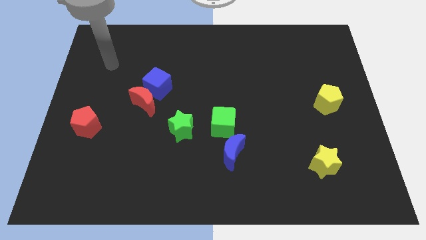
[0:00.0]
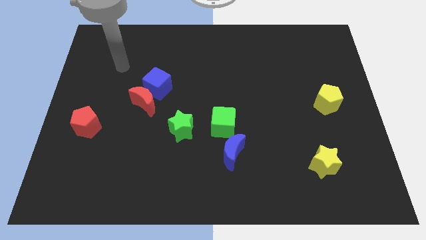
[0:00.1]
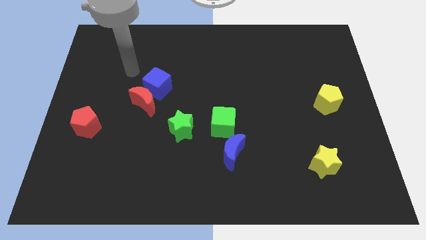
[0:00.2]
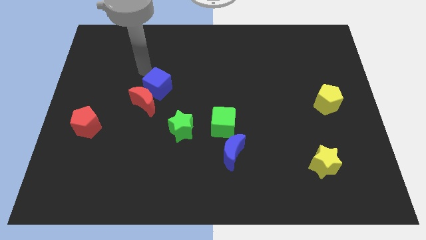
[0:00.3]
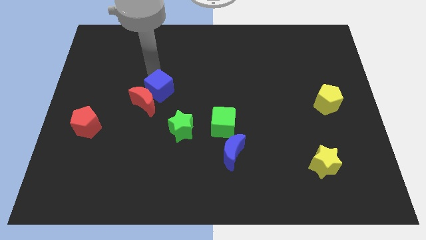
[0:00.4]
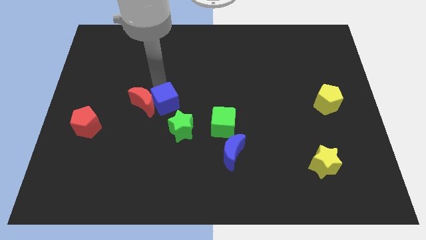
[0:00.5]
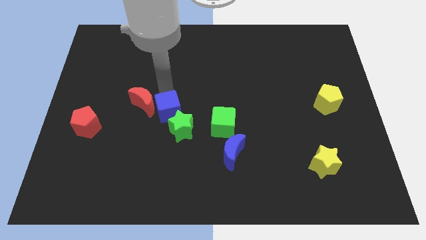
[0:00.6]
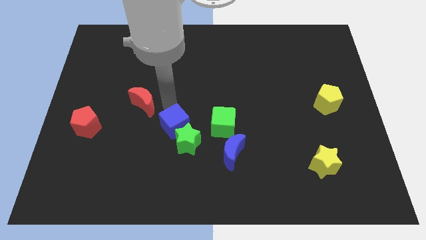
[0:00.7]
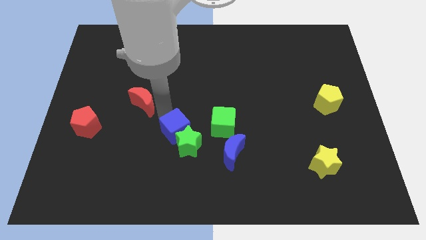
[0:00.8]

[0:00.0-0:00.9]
pull the red moon apart from the blue cube

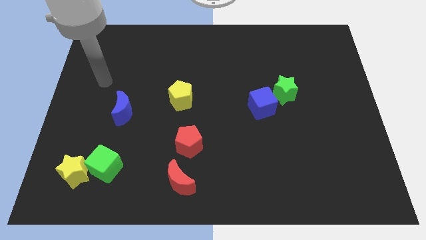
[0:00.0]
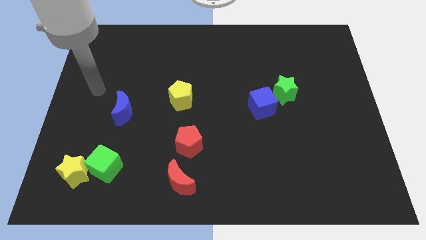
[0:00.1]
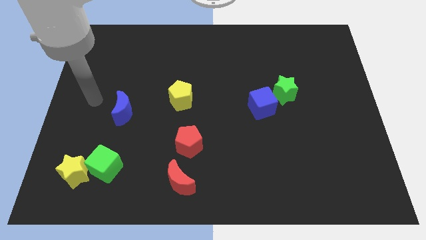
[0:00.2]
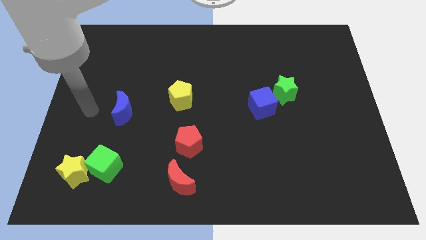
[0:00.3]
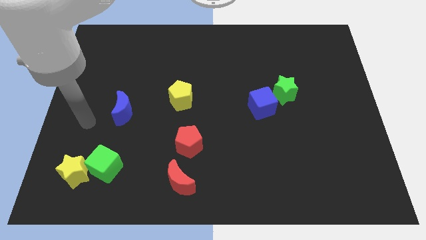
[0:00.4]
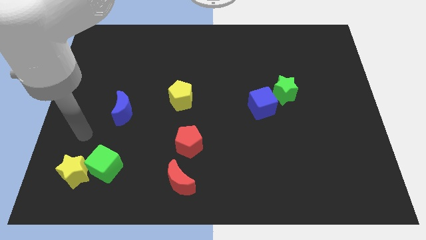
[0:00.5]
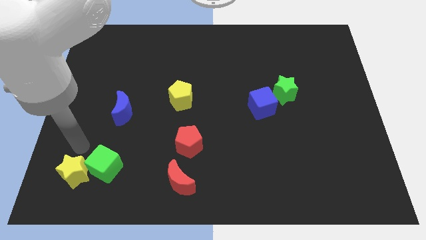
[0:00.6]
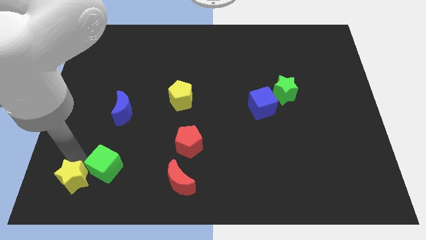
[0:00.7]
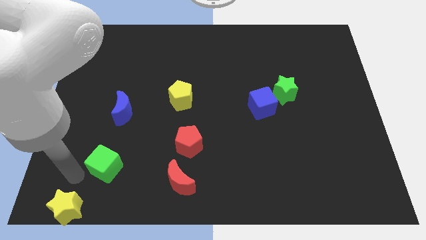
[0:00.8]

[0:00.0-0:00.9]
separate the green cube from the yellow star

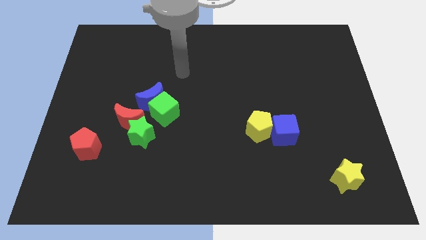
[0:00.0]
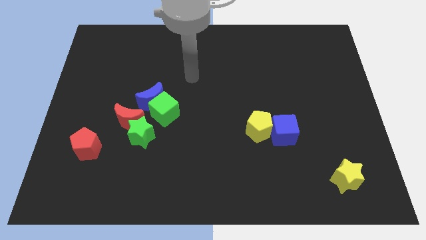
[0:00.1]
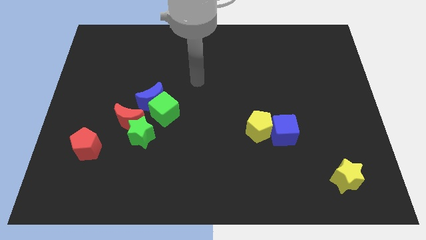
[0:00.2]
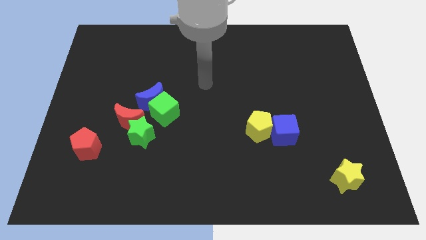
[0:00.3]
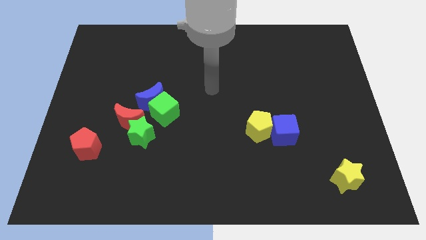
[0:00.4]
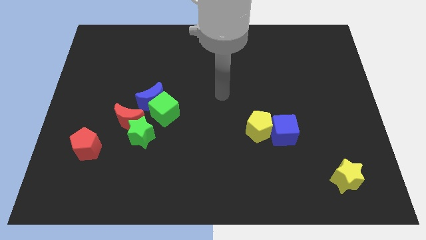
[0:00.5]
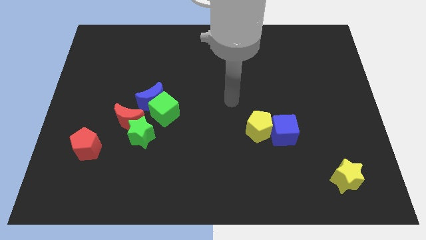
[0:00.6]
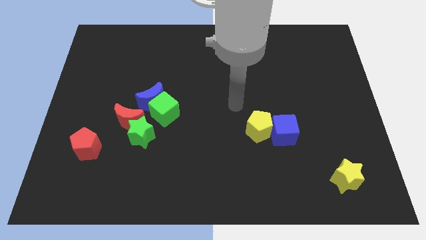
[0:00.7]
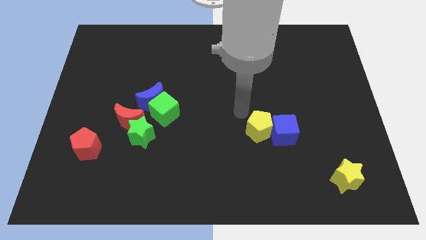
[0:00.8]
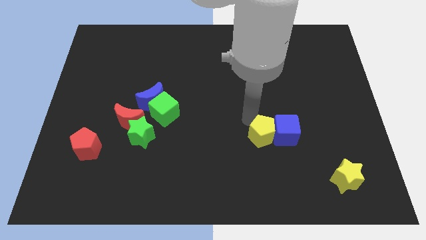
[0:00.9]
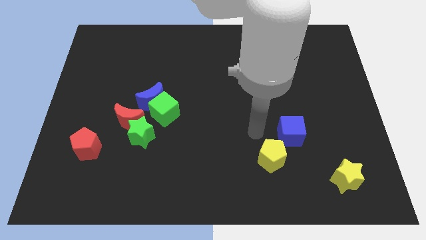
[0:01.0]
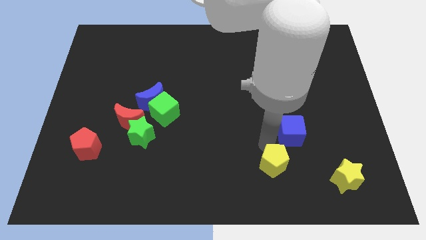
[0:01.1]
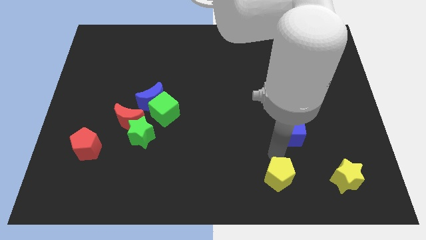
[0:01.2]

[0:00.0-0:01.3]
move the blue cube away from the yellow pentagon

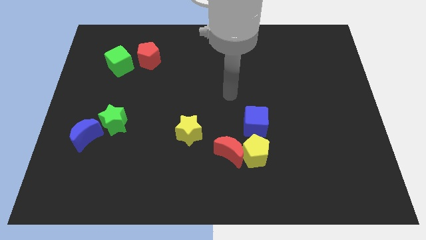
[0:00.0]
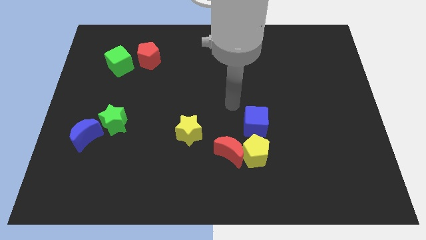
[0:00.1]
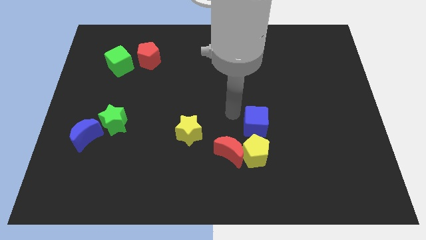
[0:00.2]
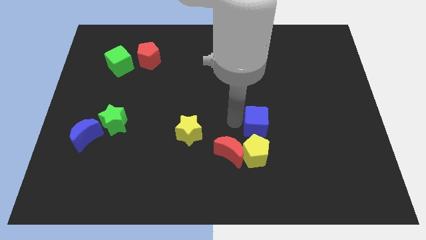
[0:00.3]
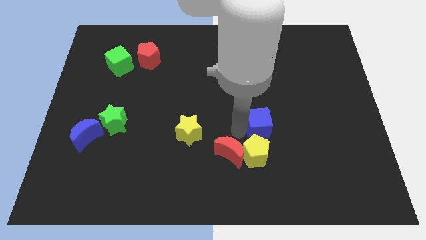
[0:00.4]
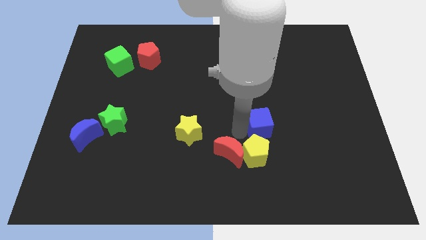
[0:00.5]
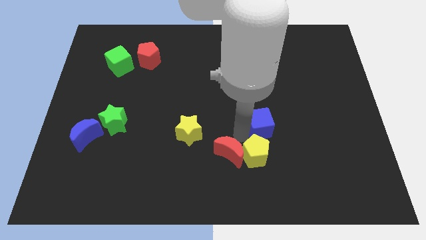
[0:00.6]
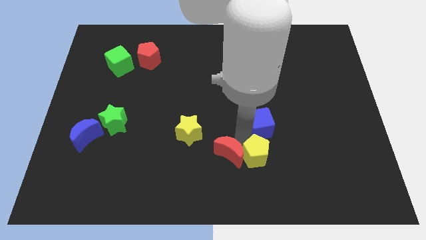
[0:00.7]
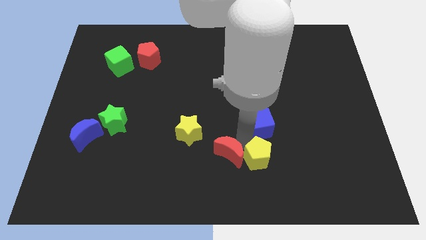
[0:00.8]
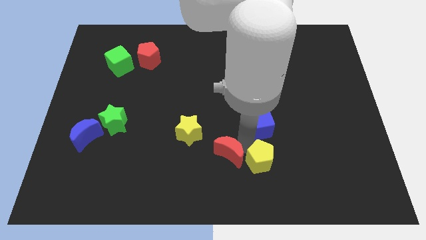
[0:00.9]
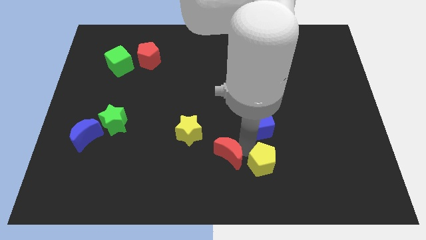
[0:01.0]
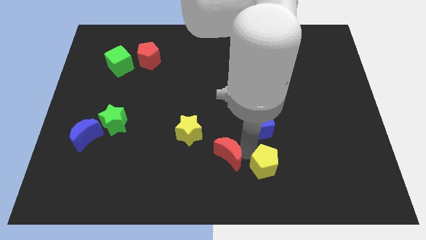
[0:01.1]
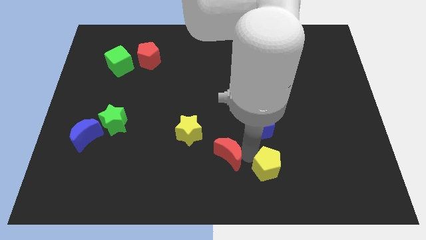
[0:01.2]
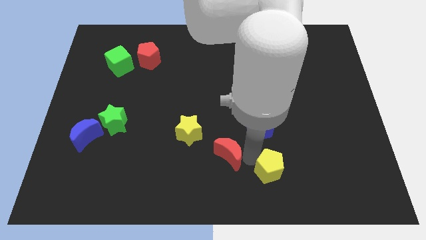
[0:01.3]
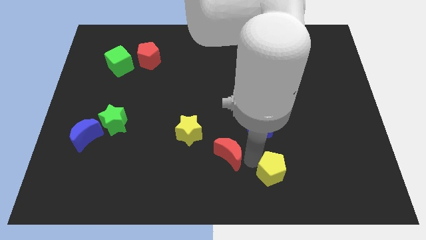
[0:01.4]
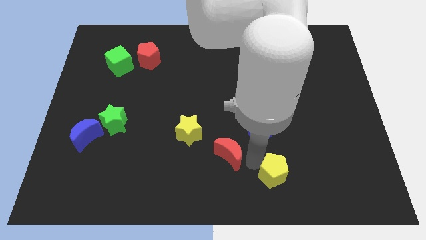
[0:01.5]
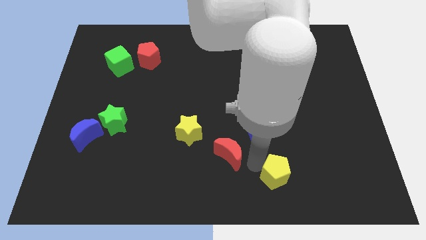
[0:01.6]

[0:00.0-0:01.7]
pull the yellow pentagon apart from the red moon and blue cube

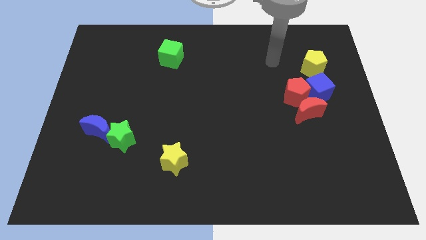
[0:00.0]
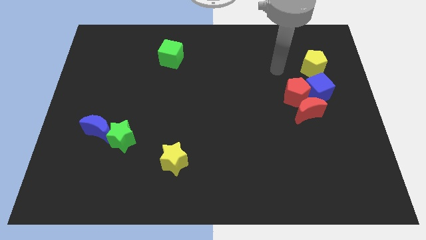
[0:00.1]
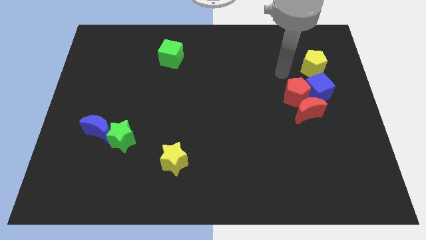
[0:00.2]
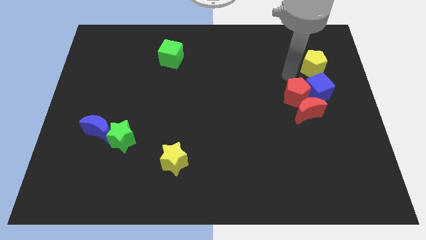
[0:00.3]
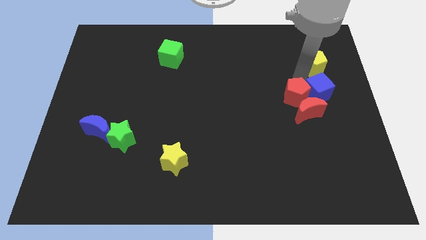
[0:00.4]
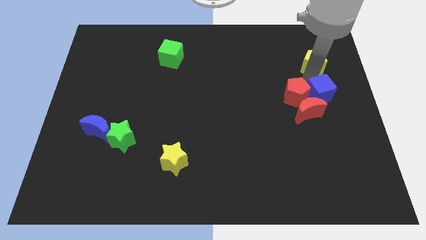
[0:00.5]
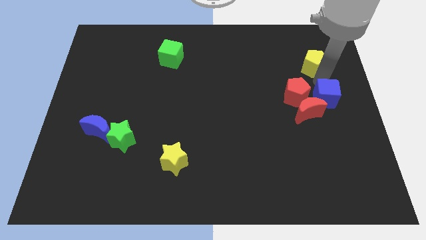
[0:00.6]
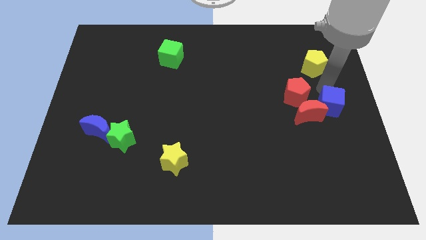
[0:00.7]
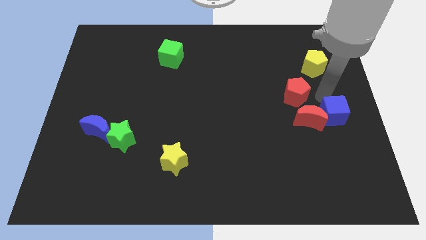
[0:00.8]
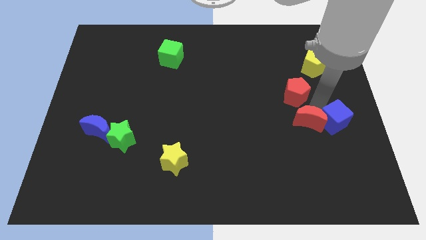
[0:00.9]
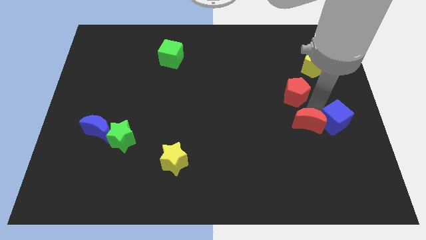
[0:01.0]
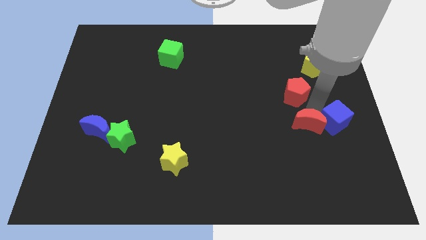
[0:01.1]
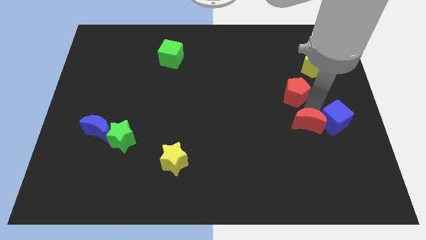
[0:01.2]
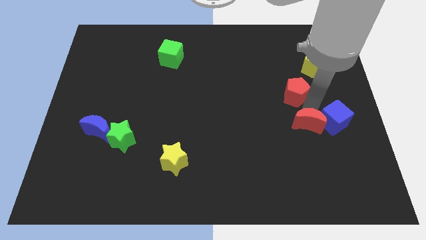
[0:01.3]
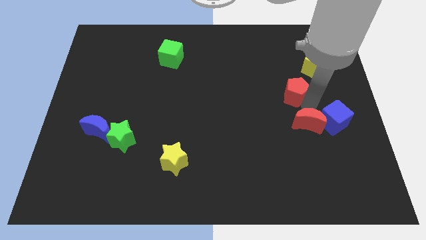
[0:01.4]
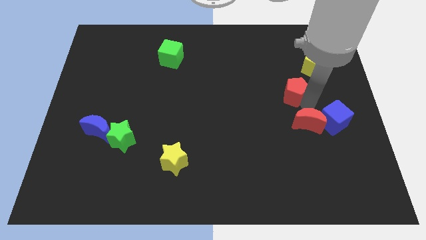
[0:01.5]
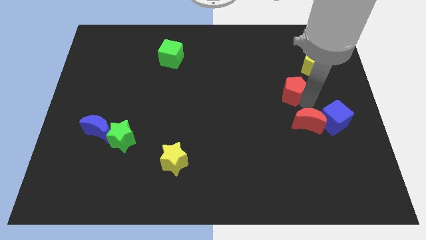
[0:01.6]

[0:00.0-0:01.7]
pull the red pentagon apart from the blue cube and red moon

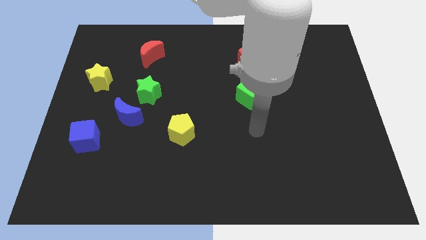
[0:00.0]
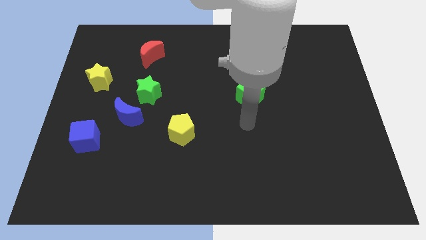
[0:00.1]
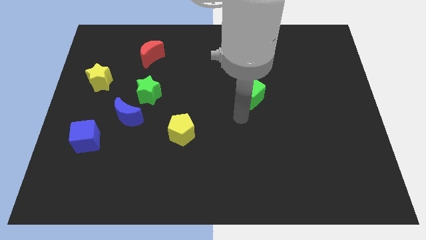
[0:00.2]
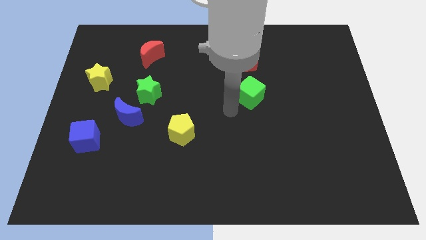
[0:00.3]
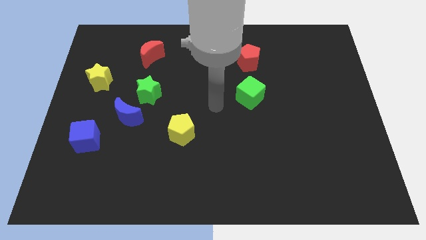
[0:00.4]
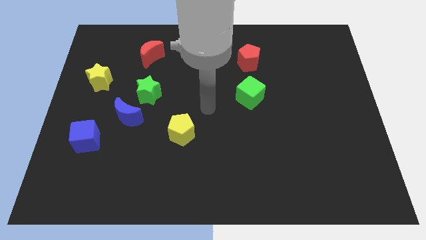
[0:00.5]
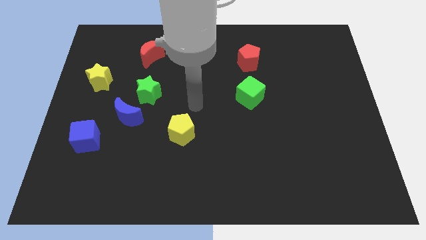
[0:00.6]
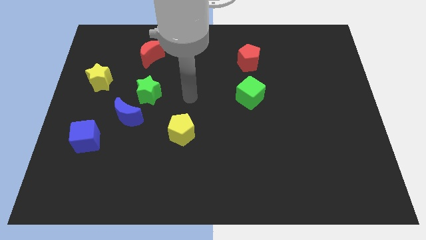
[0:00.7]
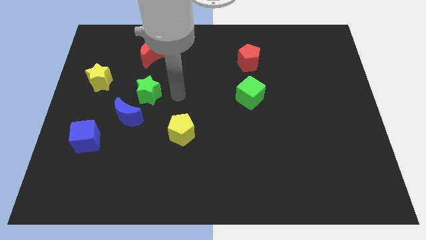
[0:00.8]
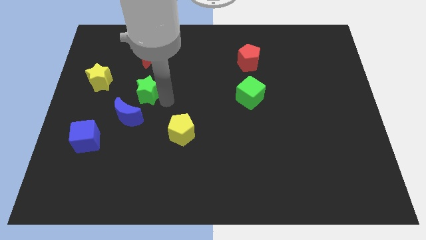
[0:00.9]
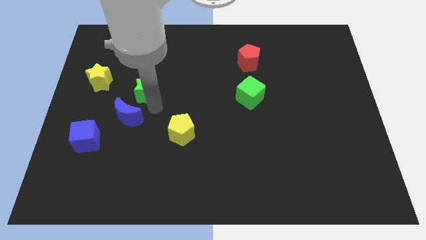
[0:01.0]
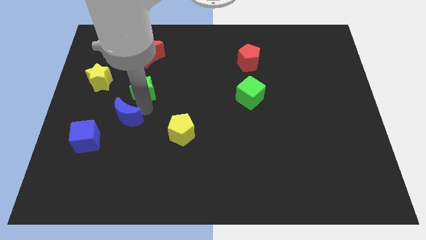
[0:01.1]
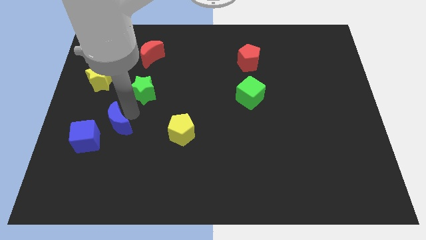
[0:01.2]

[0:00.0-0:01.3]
move the green star away from the blue moon

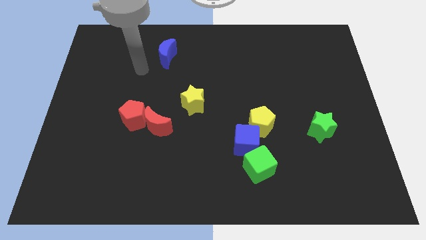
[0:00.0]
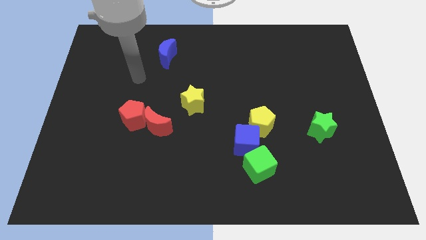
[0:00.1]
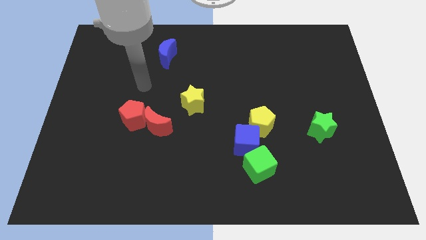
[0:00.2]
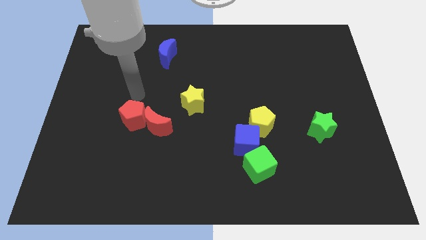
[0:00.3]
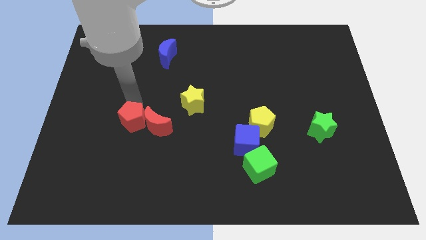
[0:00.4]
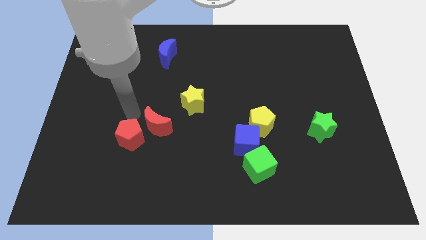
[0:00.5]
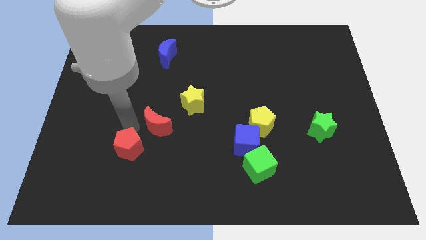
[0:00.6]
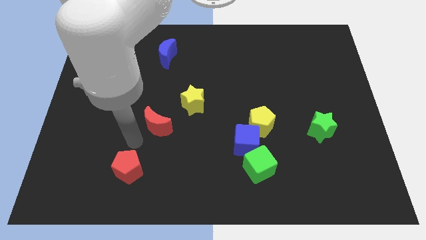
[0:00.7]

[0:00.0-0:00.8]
move the red moon away from the red pentagon

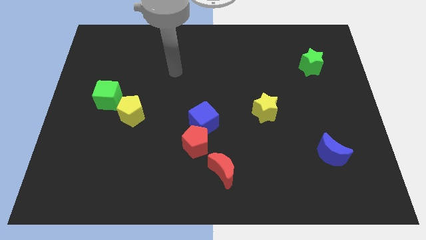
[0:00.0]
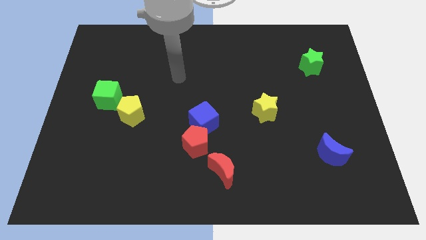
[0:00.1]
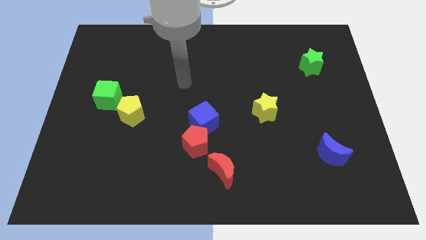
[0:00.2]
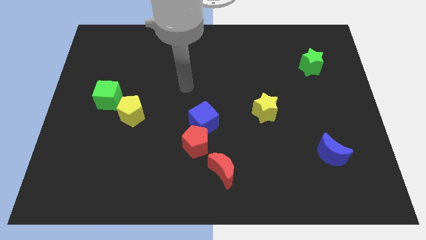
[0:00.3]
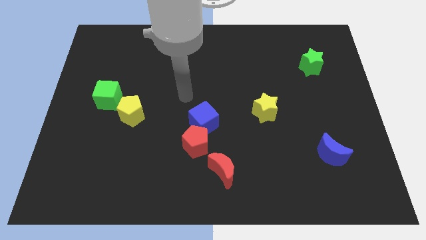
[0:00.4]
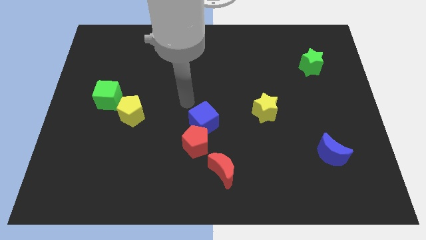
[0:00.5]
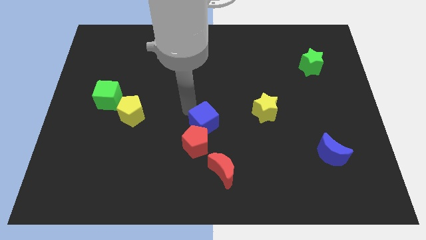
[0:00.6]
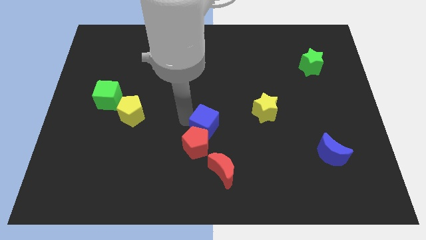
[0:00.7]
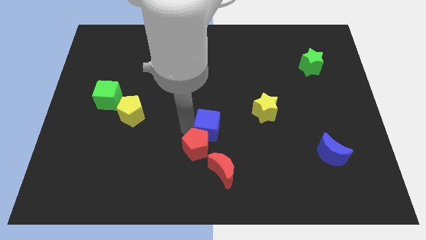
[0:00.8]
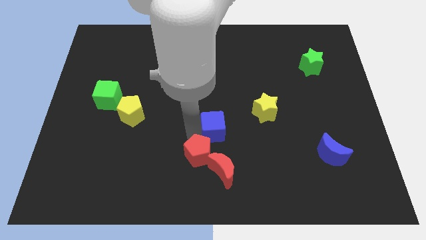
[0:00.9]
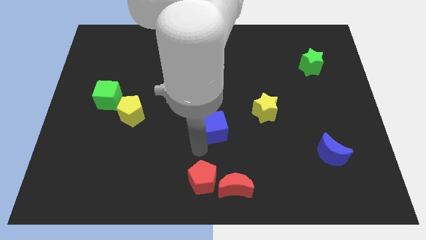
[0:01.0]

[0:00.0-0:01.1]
separate the blue cube from the red pentagon
